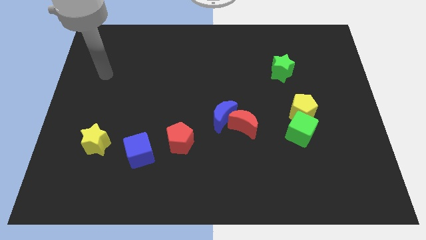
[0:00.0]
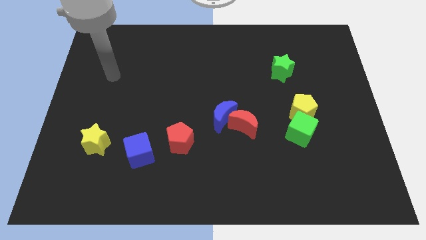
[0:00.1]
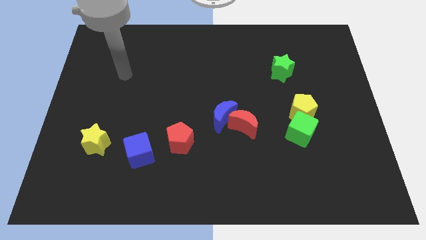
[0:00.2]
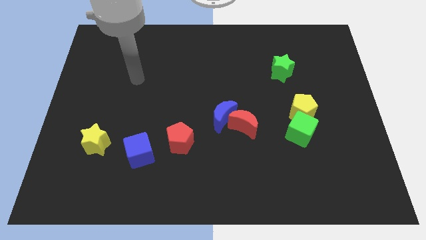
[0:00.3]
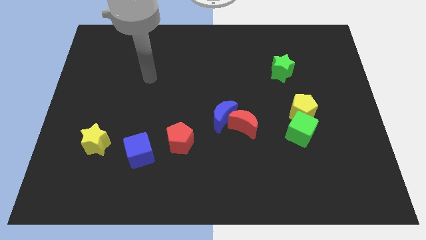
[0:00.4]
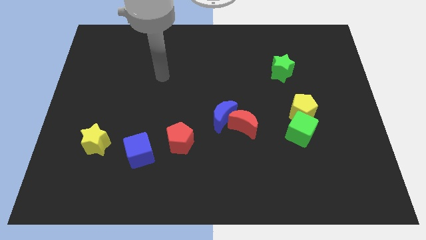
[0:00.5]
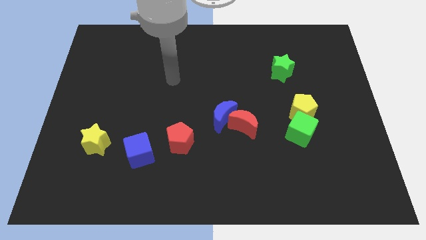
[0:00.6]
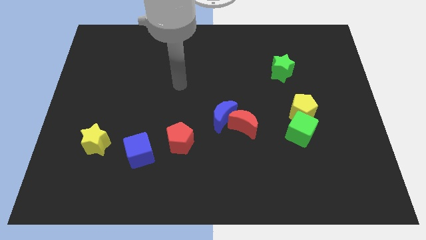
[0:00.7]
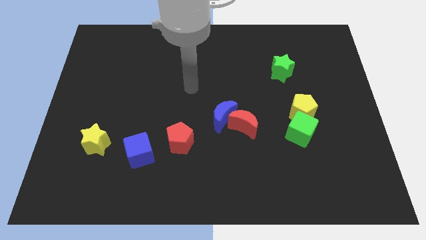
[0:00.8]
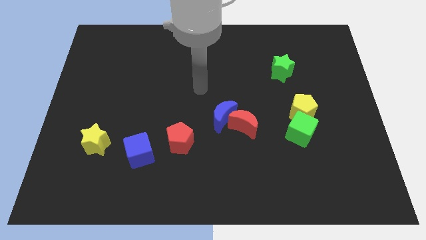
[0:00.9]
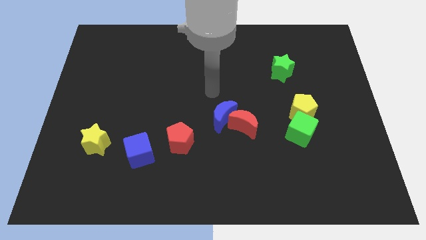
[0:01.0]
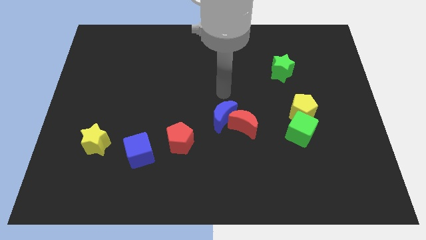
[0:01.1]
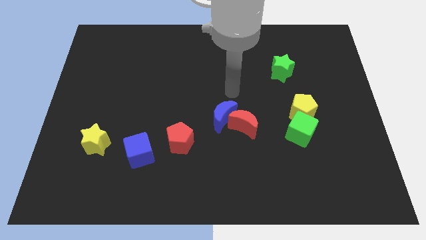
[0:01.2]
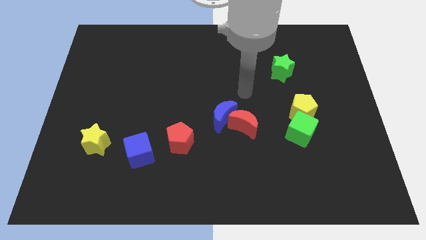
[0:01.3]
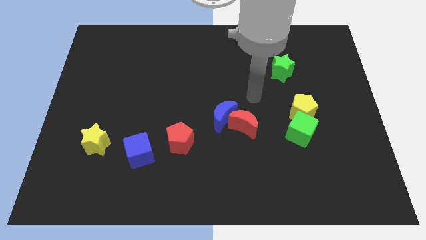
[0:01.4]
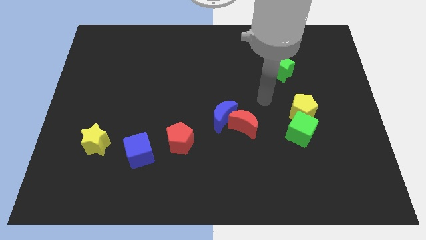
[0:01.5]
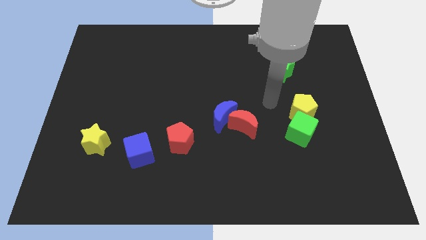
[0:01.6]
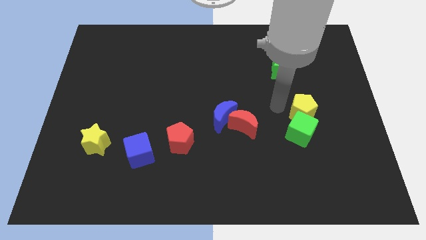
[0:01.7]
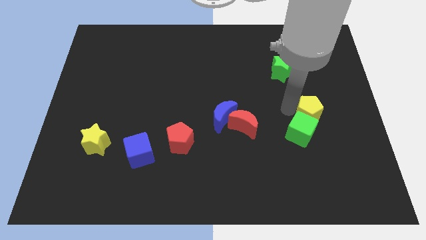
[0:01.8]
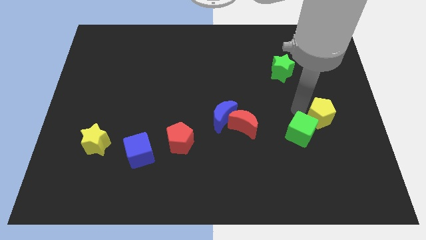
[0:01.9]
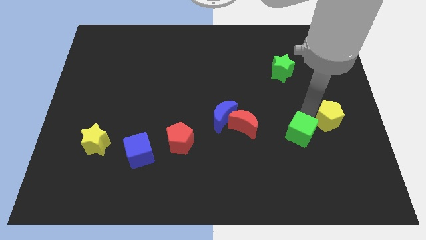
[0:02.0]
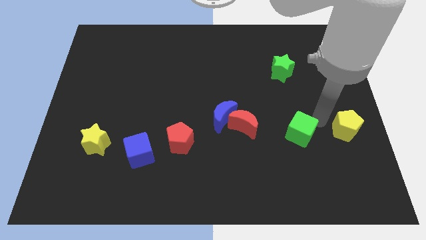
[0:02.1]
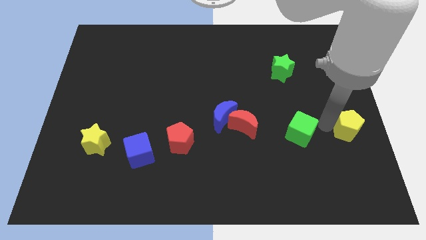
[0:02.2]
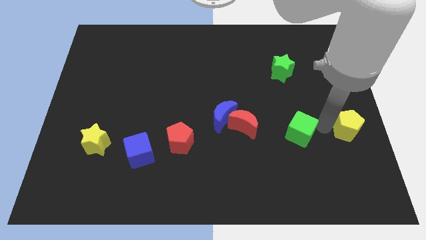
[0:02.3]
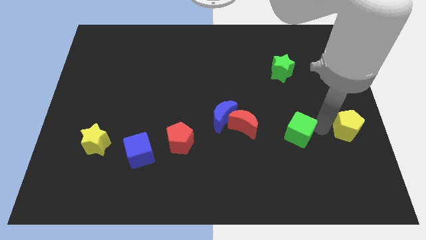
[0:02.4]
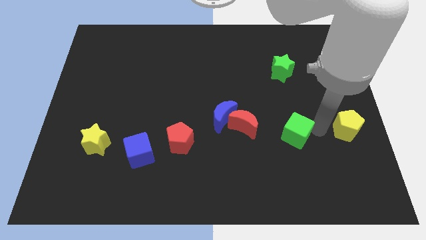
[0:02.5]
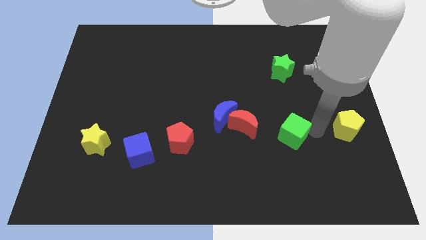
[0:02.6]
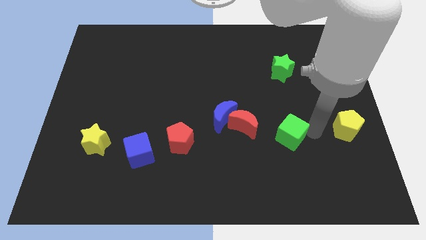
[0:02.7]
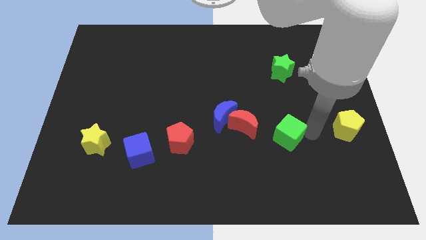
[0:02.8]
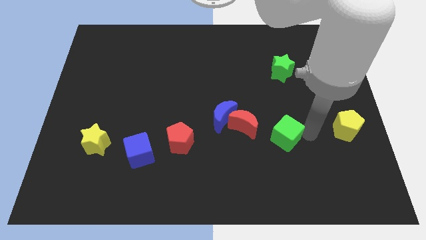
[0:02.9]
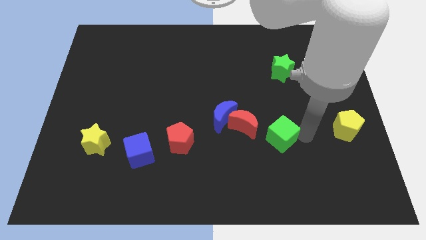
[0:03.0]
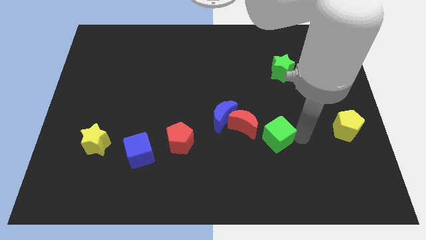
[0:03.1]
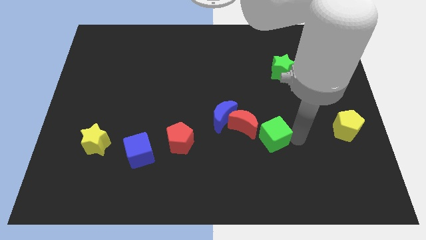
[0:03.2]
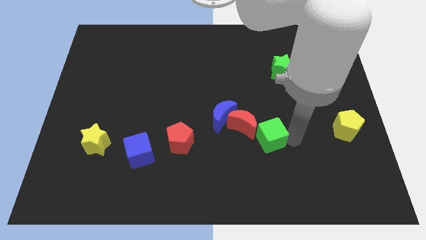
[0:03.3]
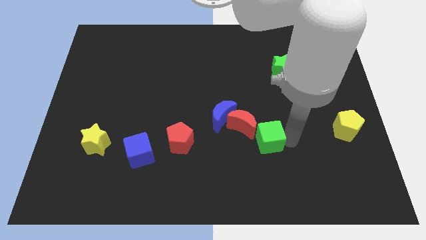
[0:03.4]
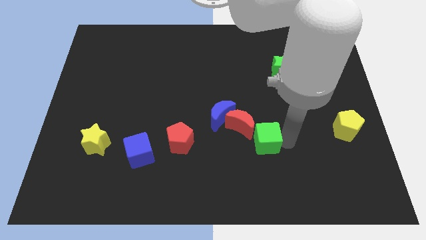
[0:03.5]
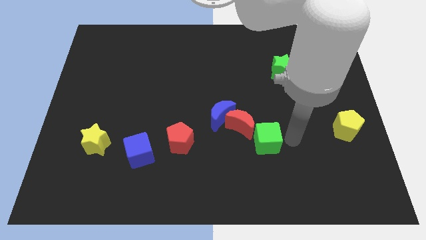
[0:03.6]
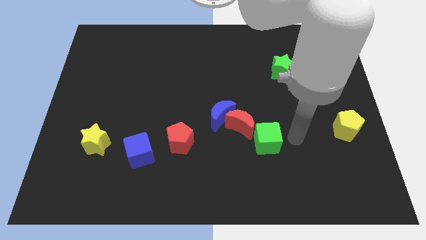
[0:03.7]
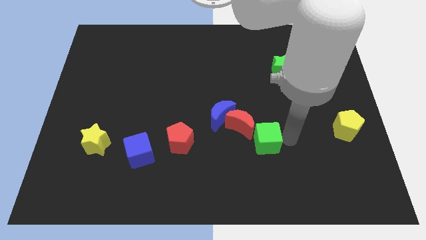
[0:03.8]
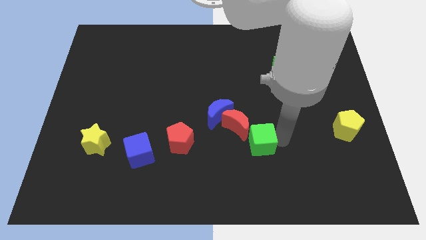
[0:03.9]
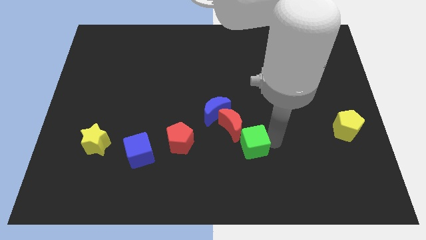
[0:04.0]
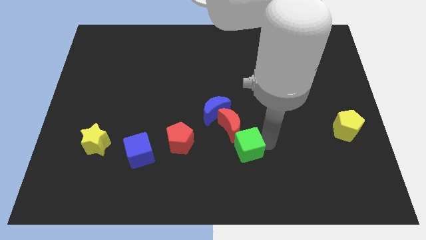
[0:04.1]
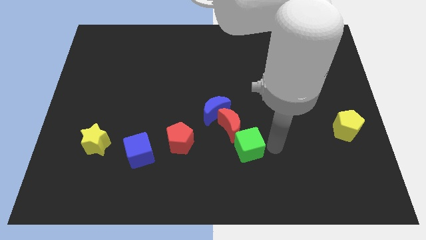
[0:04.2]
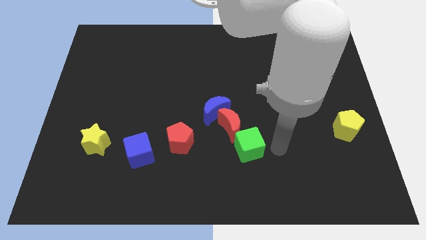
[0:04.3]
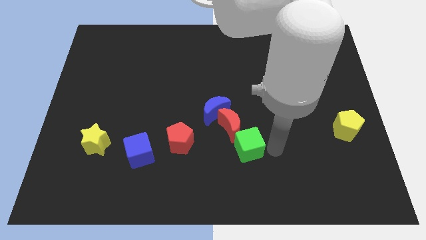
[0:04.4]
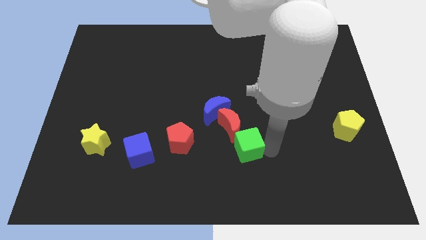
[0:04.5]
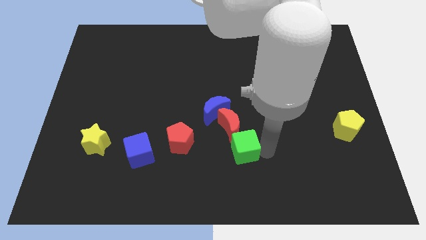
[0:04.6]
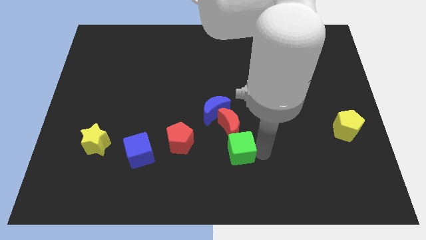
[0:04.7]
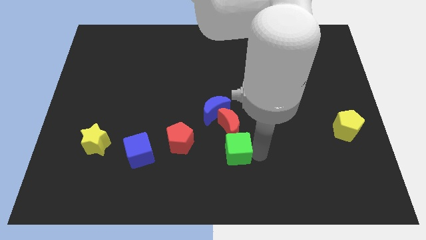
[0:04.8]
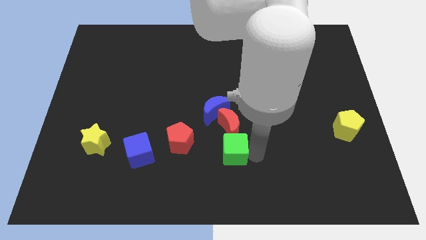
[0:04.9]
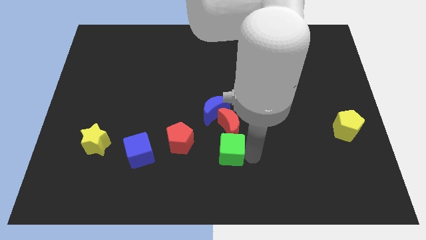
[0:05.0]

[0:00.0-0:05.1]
move the green cube to the bottom left side of the red moon

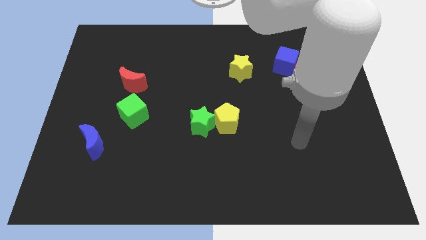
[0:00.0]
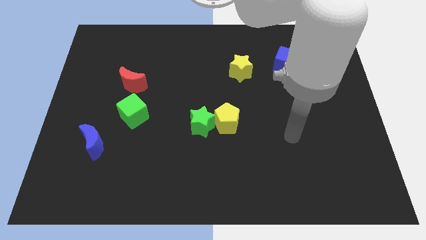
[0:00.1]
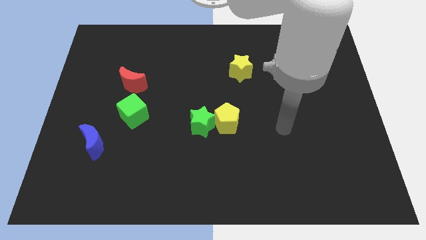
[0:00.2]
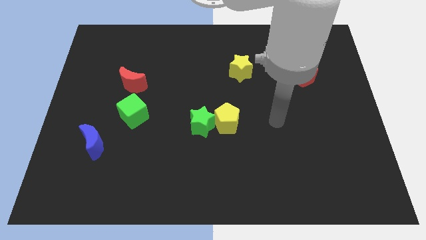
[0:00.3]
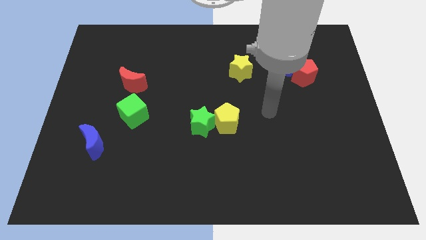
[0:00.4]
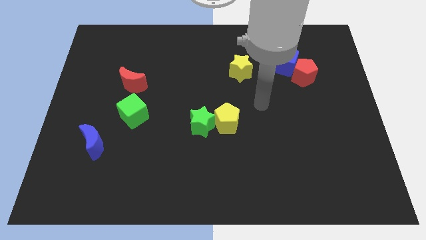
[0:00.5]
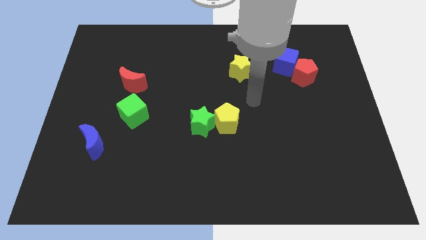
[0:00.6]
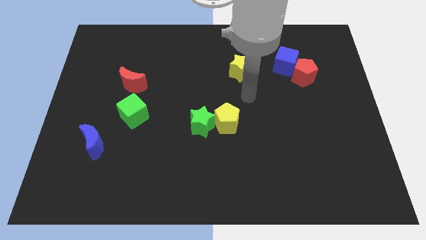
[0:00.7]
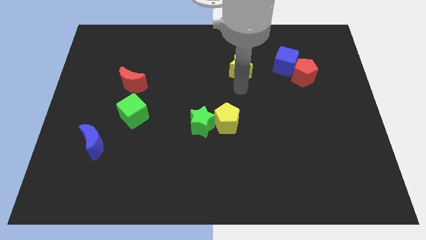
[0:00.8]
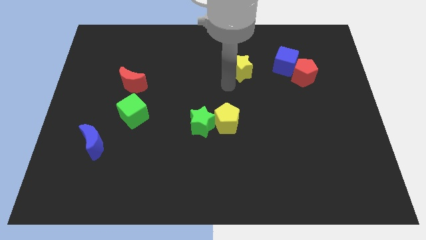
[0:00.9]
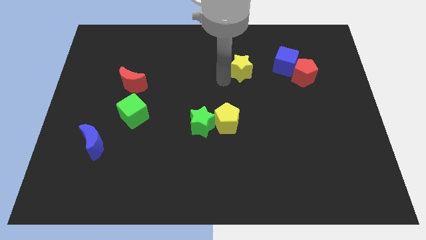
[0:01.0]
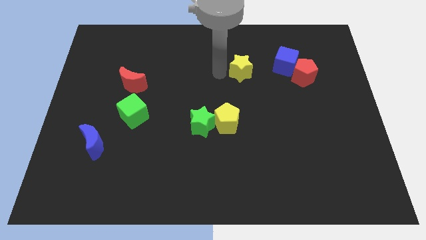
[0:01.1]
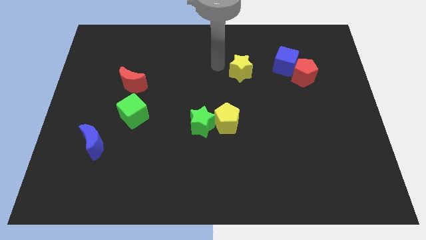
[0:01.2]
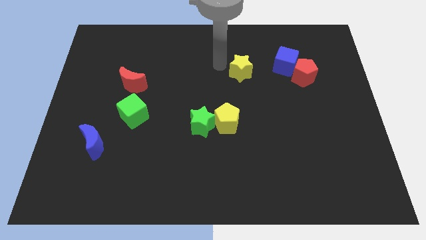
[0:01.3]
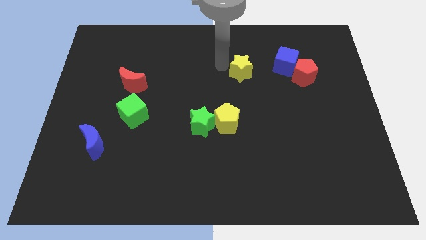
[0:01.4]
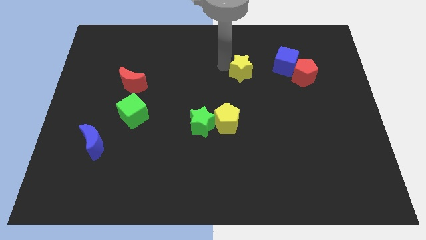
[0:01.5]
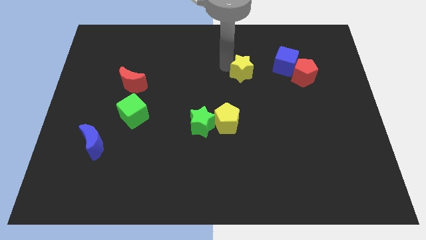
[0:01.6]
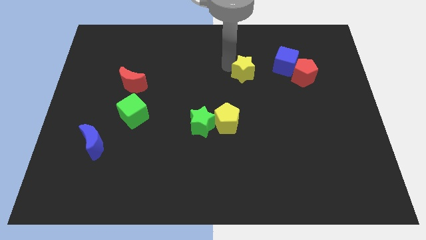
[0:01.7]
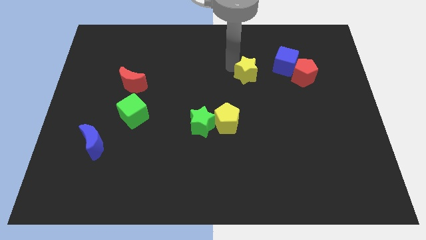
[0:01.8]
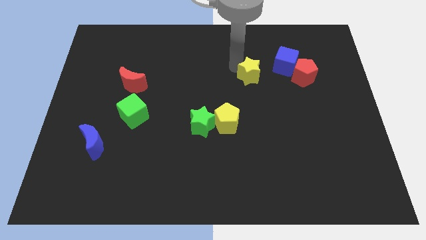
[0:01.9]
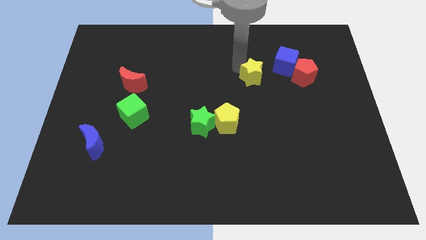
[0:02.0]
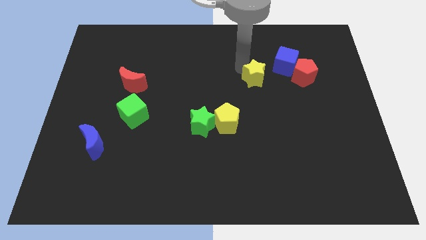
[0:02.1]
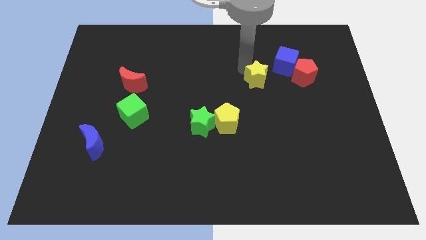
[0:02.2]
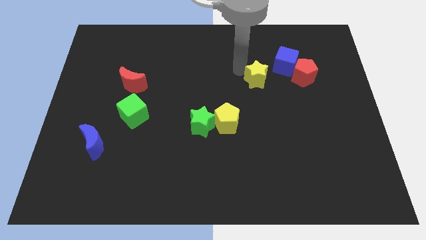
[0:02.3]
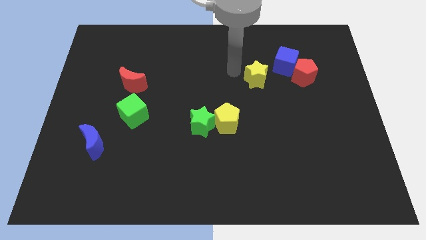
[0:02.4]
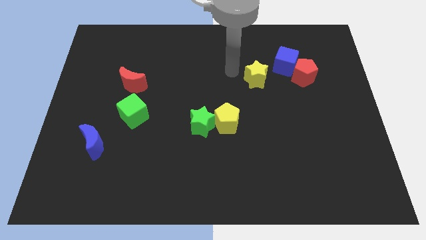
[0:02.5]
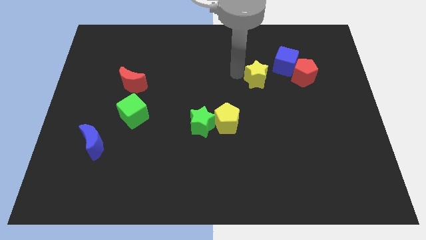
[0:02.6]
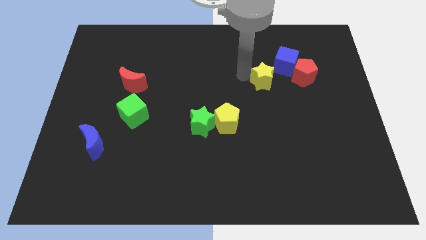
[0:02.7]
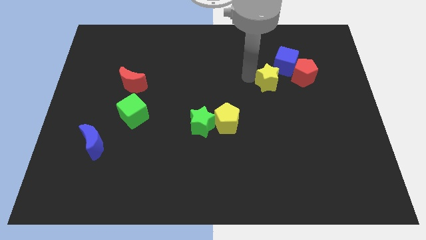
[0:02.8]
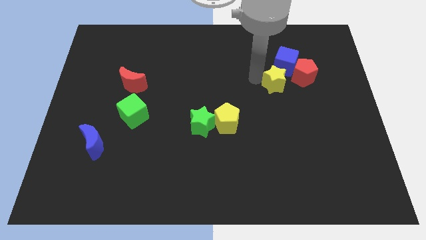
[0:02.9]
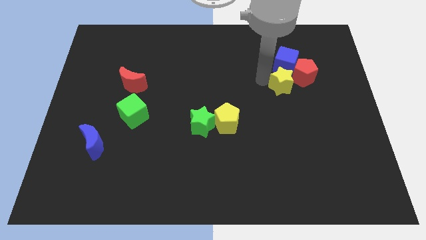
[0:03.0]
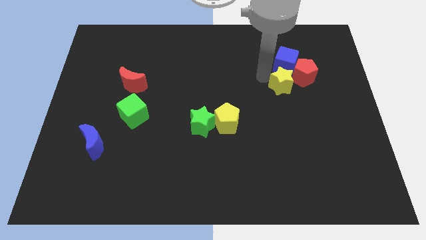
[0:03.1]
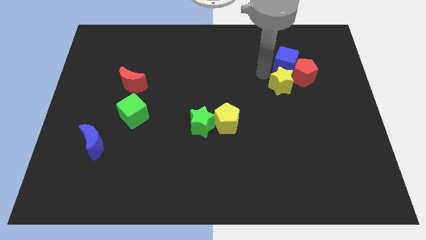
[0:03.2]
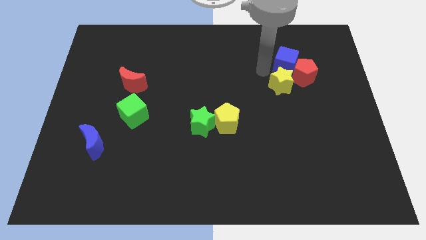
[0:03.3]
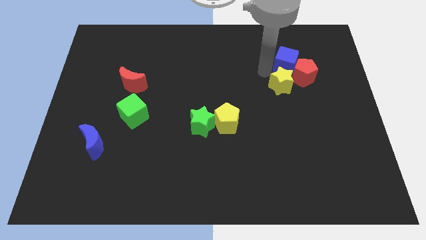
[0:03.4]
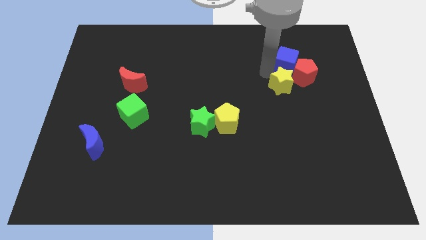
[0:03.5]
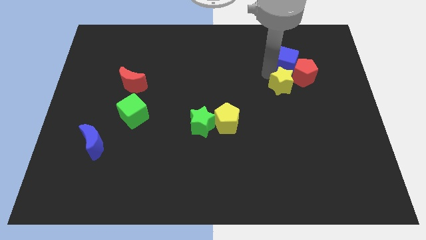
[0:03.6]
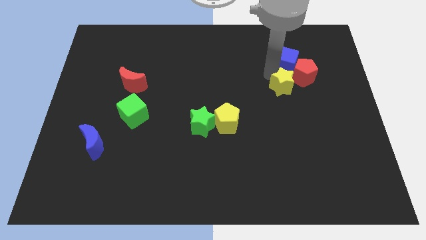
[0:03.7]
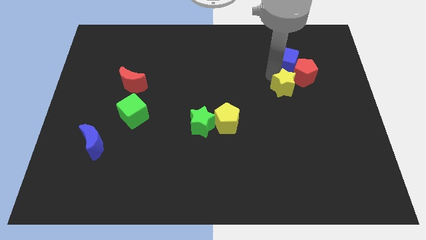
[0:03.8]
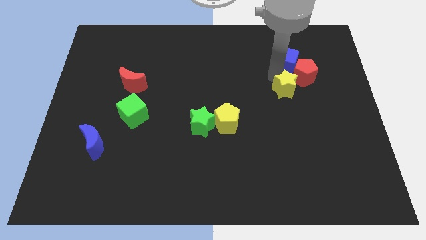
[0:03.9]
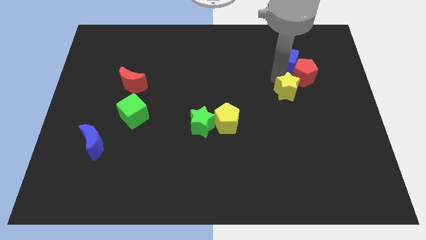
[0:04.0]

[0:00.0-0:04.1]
push the yellow star below the red pentagon
